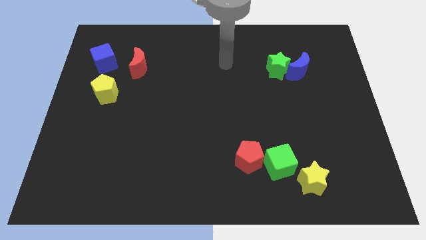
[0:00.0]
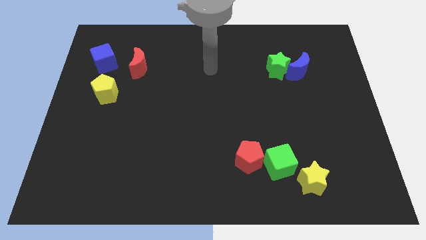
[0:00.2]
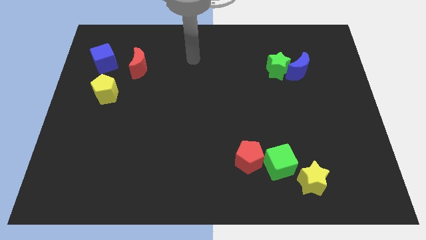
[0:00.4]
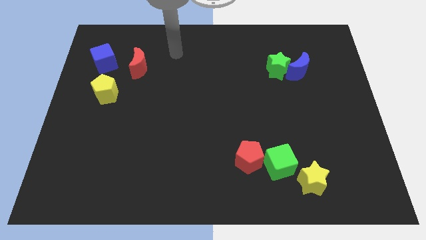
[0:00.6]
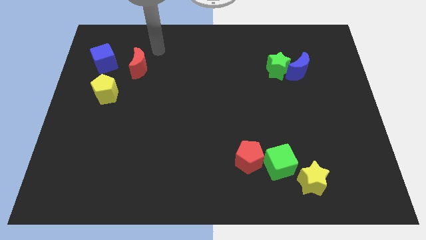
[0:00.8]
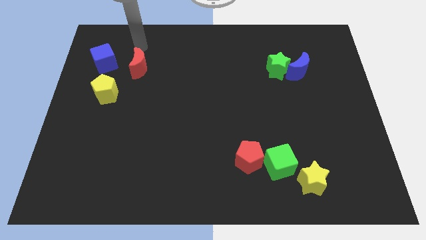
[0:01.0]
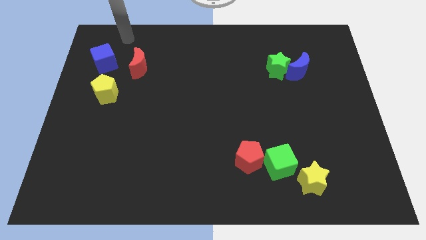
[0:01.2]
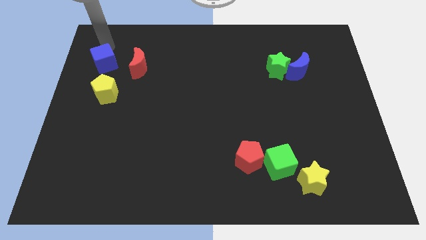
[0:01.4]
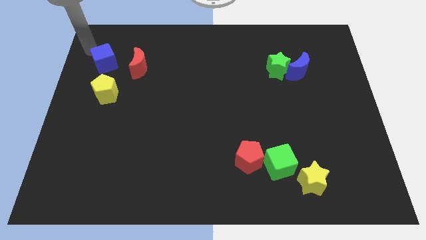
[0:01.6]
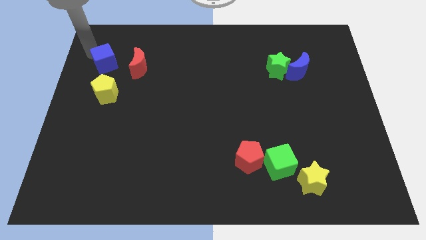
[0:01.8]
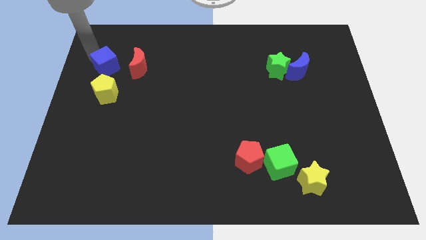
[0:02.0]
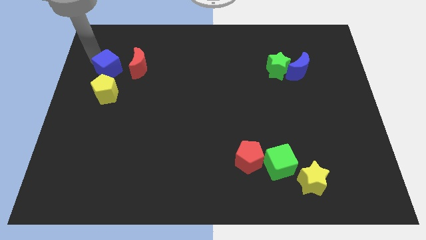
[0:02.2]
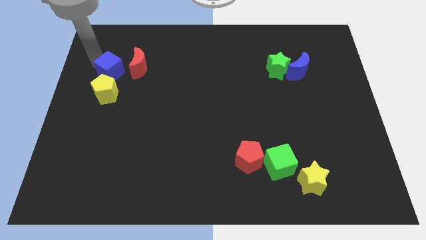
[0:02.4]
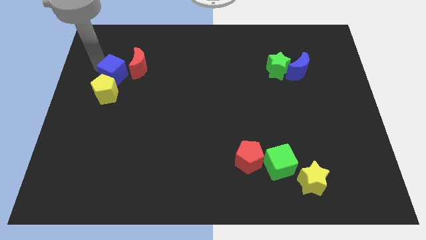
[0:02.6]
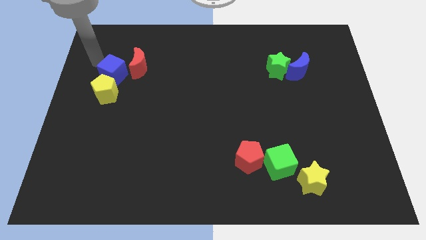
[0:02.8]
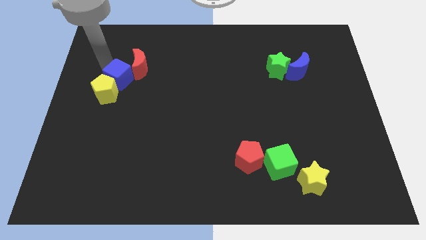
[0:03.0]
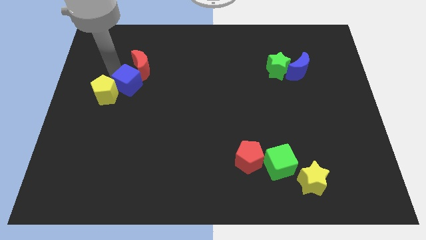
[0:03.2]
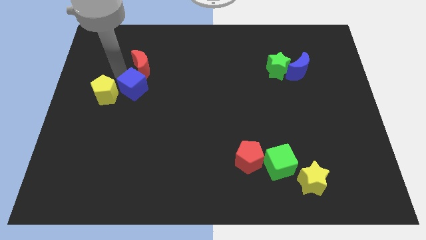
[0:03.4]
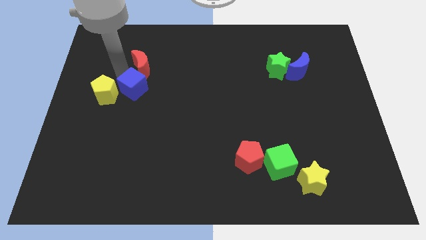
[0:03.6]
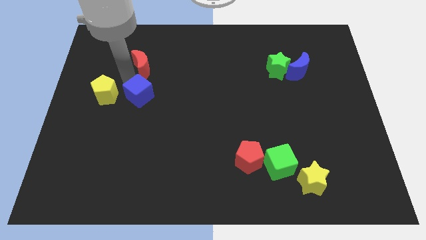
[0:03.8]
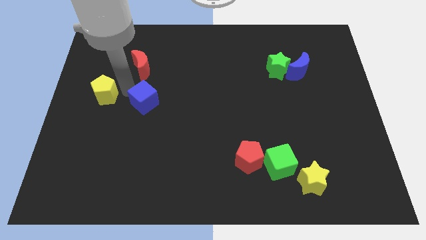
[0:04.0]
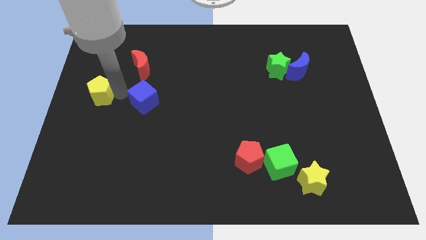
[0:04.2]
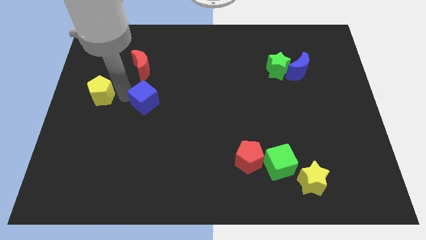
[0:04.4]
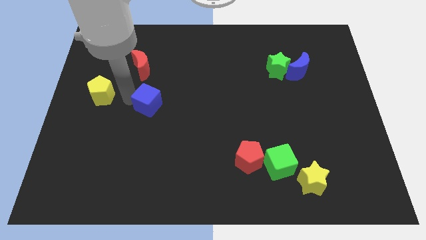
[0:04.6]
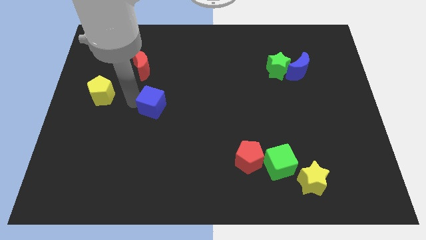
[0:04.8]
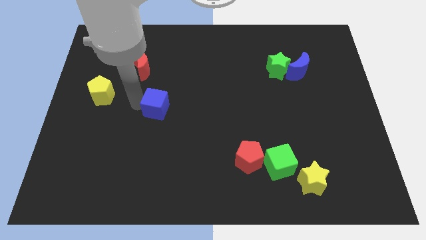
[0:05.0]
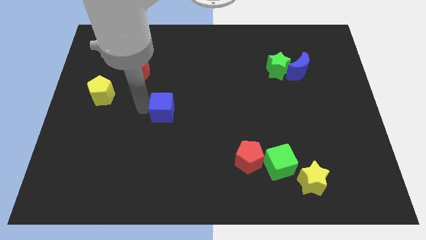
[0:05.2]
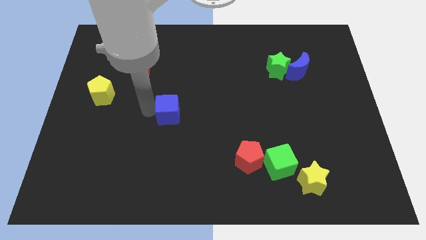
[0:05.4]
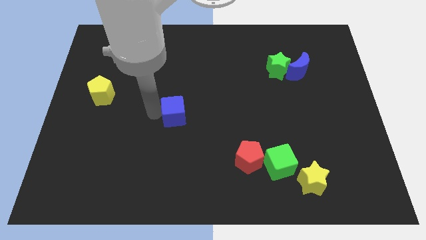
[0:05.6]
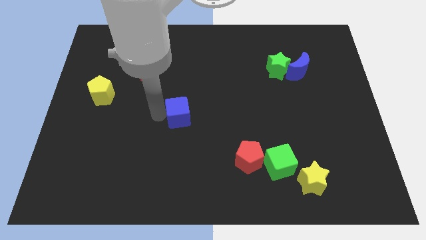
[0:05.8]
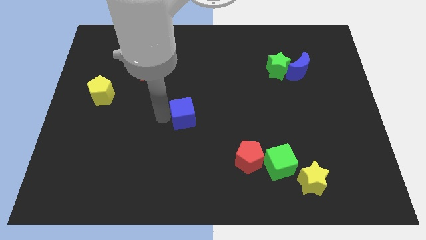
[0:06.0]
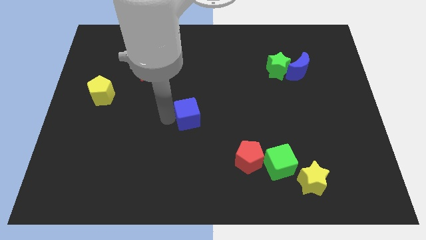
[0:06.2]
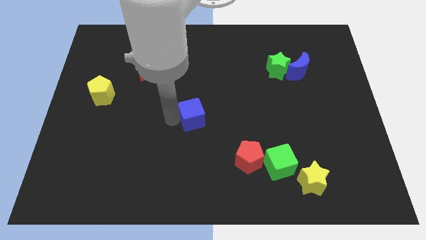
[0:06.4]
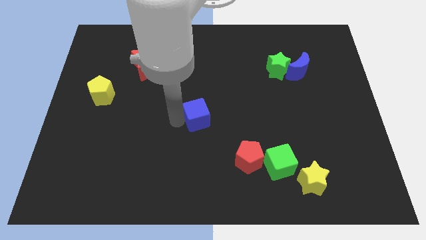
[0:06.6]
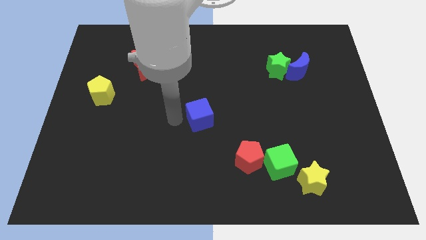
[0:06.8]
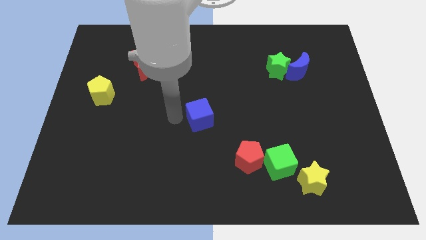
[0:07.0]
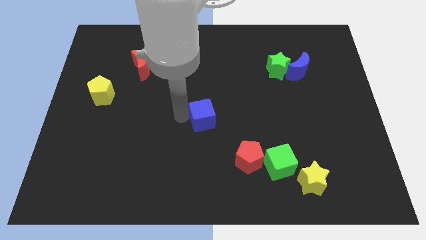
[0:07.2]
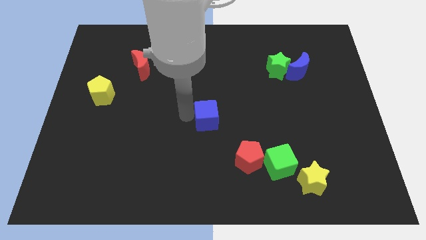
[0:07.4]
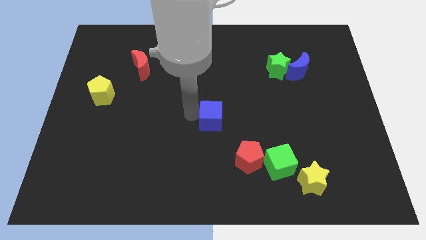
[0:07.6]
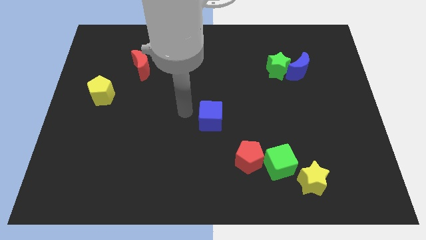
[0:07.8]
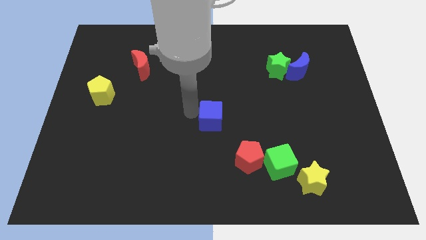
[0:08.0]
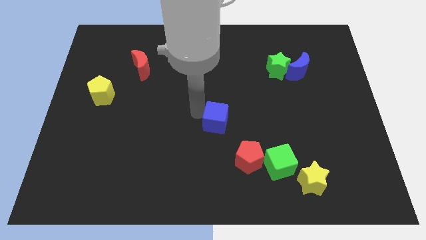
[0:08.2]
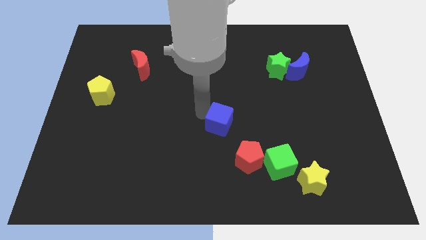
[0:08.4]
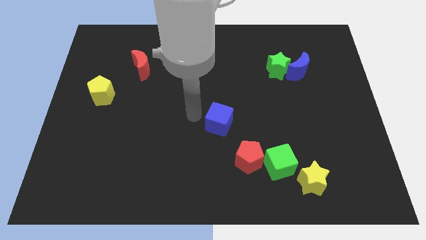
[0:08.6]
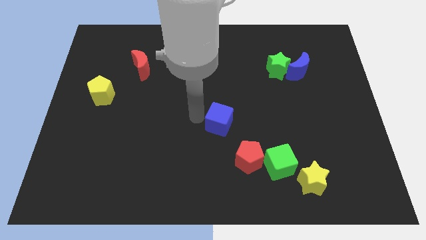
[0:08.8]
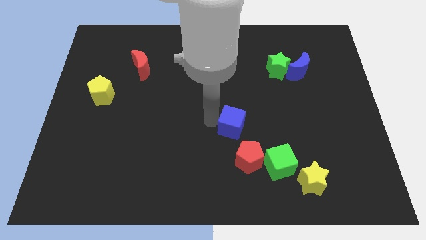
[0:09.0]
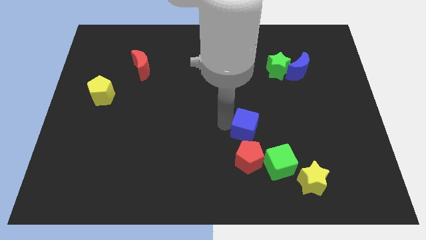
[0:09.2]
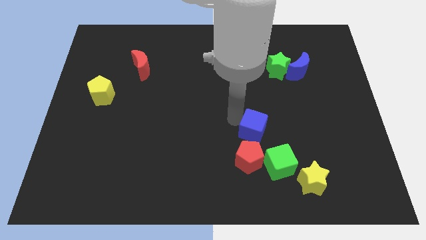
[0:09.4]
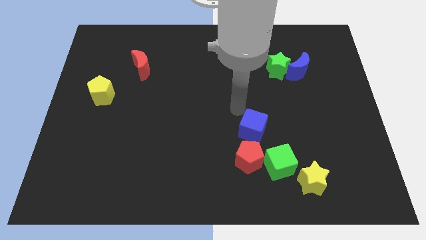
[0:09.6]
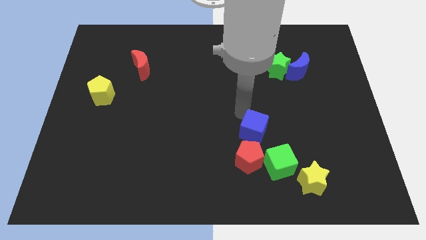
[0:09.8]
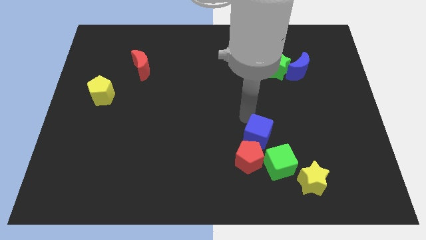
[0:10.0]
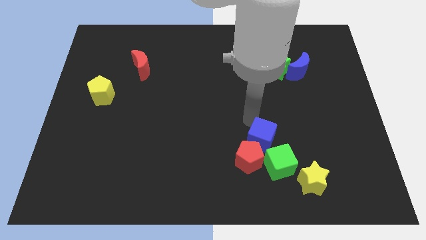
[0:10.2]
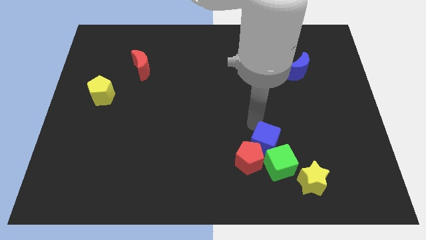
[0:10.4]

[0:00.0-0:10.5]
push the blue cube close to the green cube
